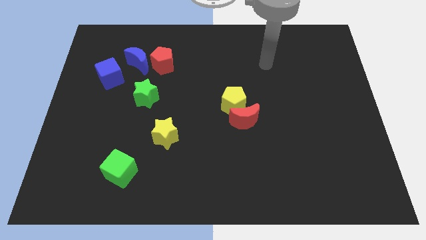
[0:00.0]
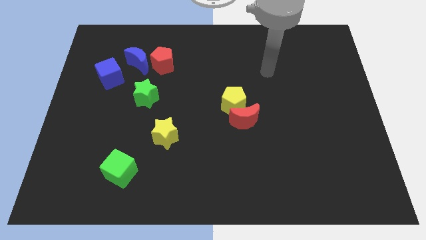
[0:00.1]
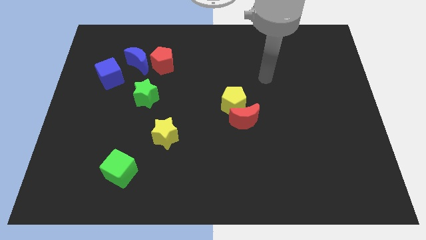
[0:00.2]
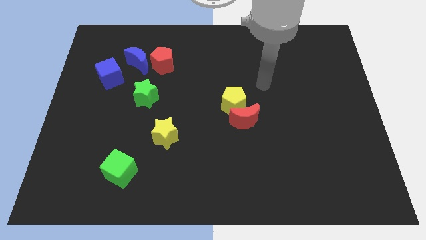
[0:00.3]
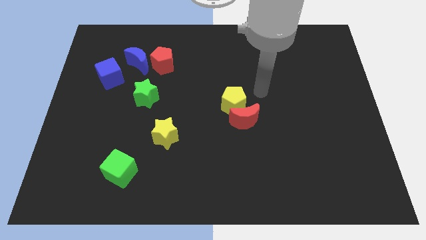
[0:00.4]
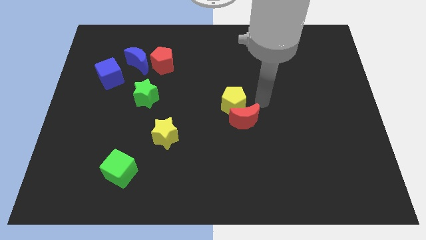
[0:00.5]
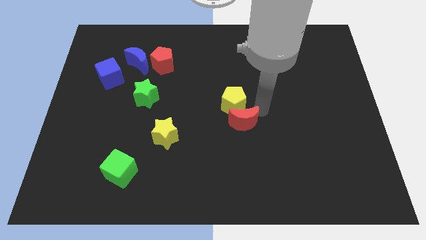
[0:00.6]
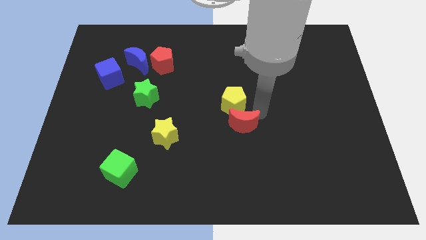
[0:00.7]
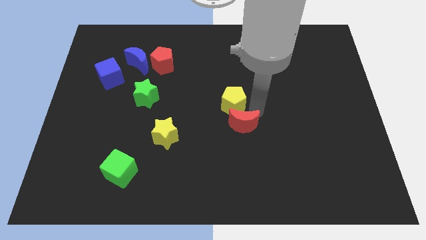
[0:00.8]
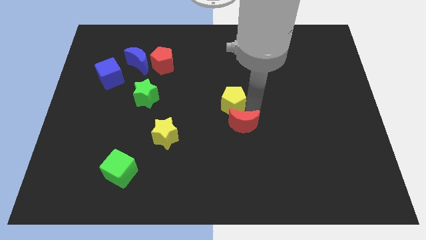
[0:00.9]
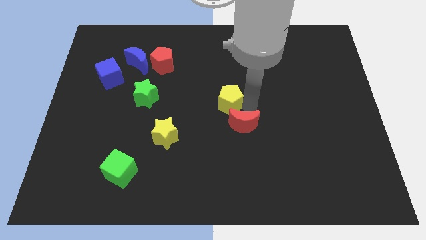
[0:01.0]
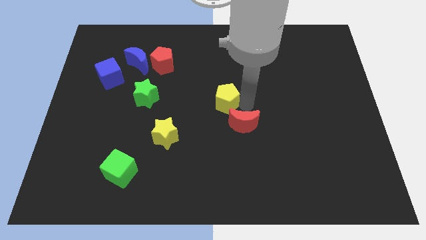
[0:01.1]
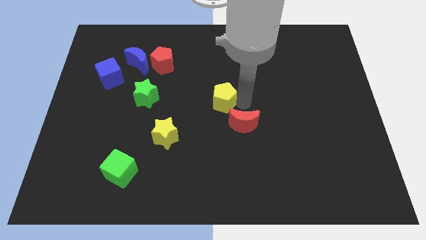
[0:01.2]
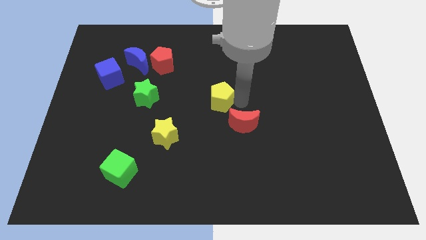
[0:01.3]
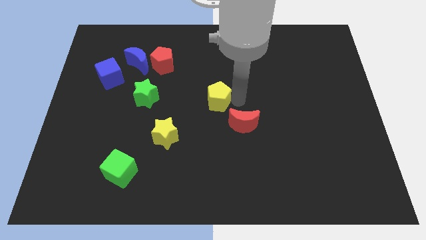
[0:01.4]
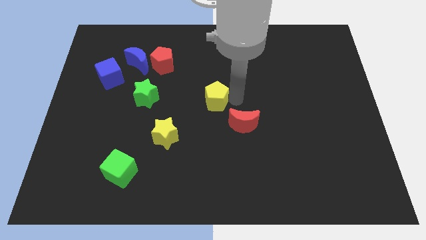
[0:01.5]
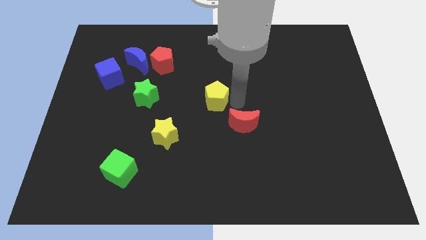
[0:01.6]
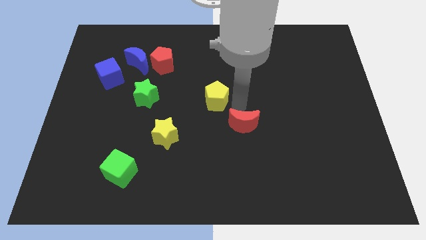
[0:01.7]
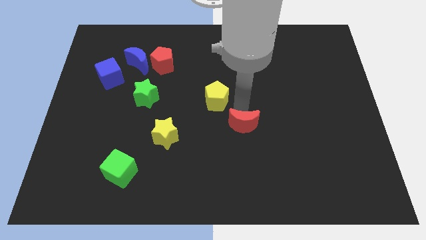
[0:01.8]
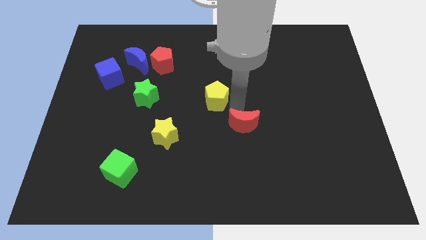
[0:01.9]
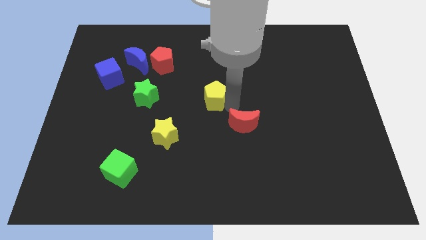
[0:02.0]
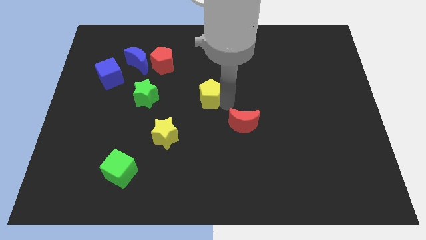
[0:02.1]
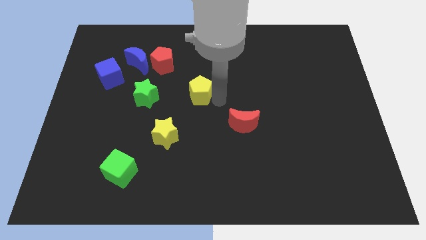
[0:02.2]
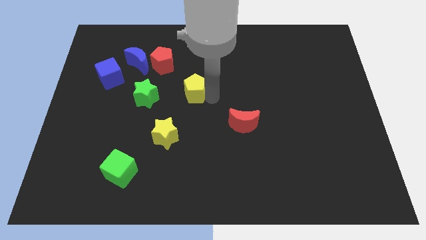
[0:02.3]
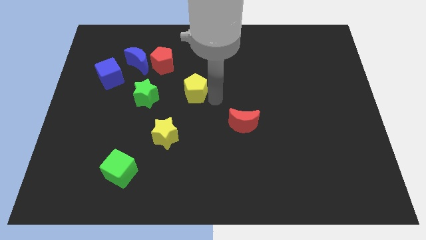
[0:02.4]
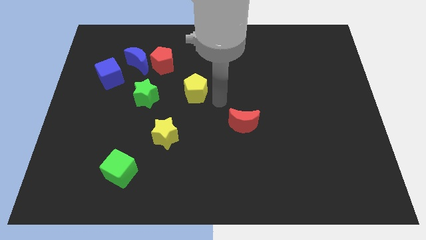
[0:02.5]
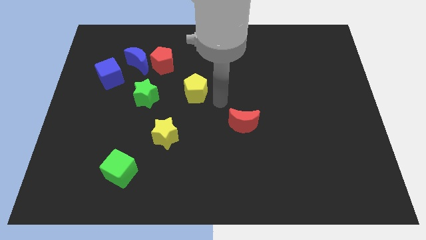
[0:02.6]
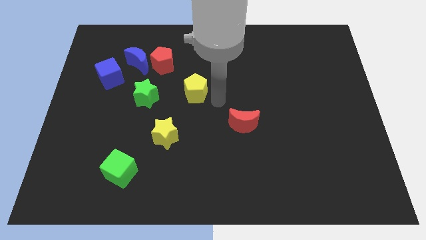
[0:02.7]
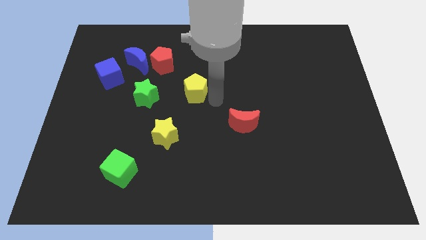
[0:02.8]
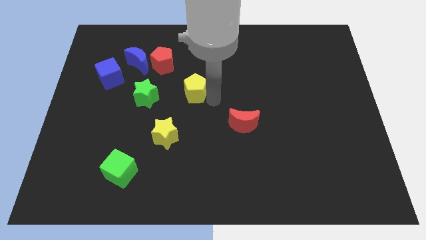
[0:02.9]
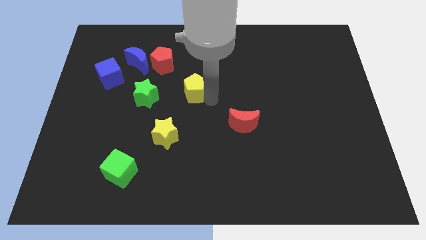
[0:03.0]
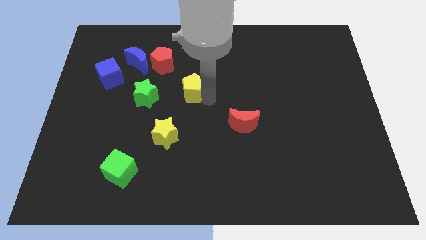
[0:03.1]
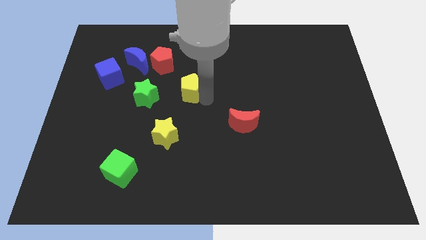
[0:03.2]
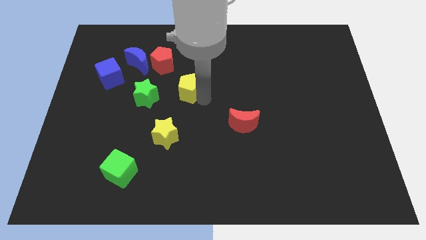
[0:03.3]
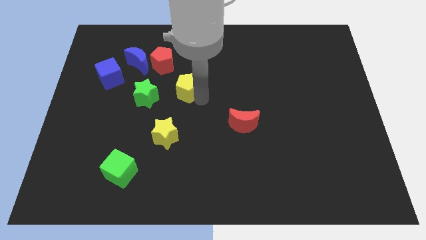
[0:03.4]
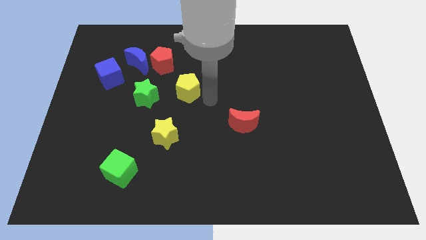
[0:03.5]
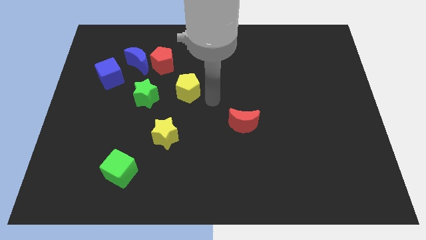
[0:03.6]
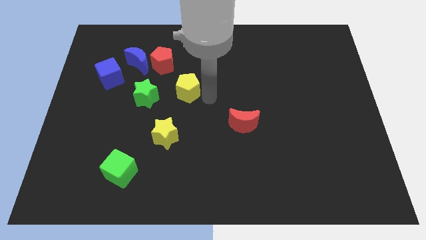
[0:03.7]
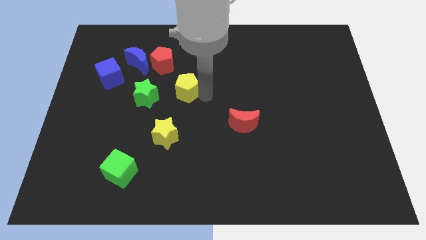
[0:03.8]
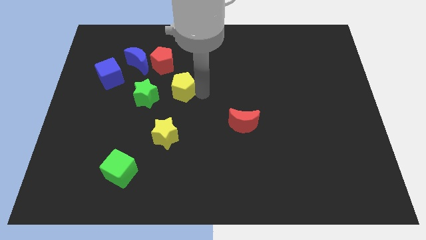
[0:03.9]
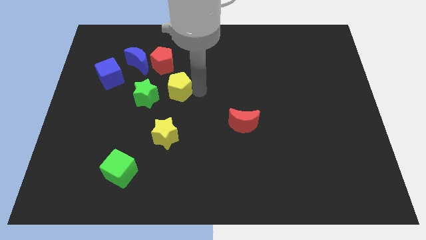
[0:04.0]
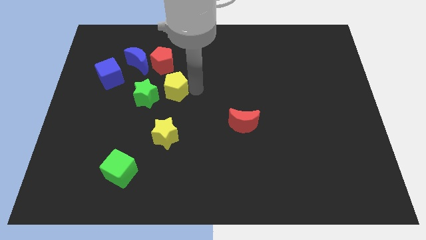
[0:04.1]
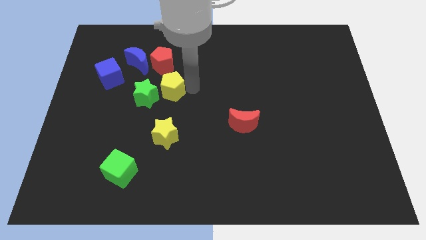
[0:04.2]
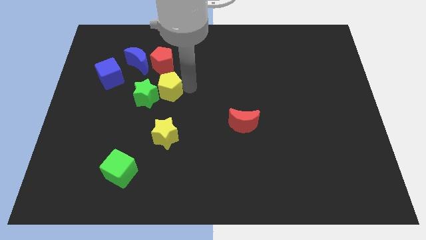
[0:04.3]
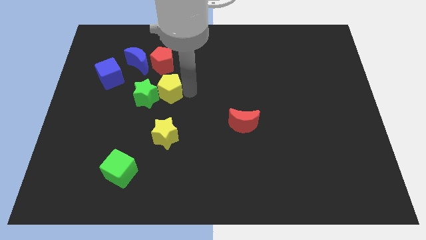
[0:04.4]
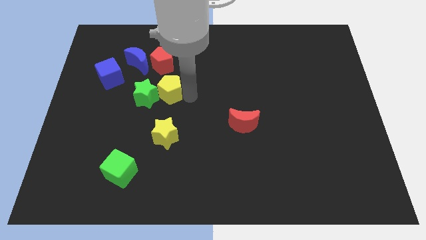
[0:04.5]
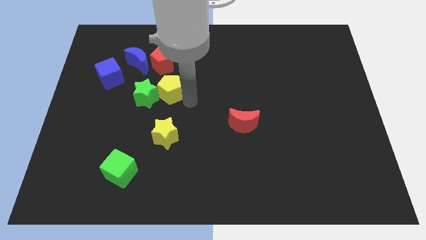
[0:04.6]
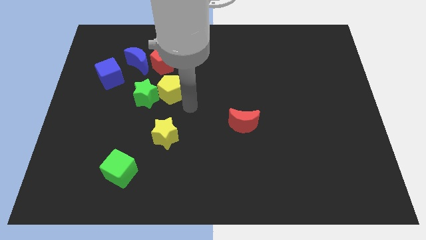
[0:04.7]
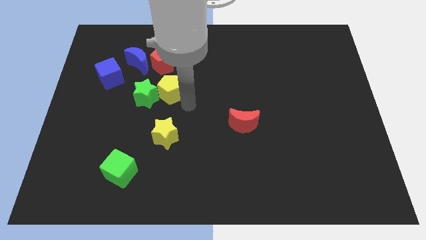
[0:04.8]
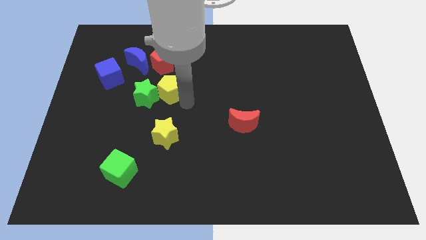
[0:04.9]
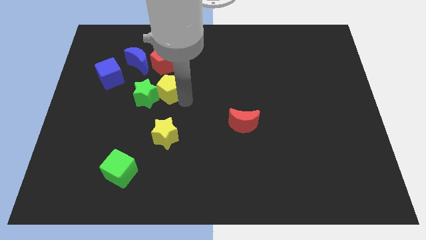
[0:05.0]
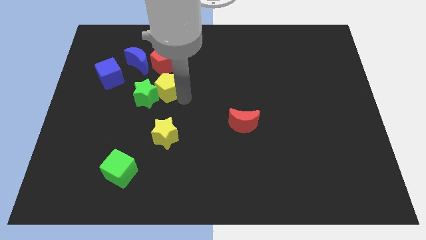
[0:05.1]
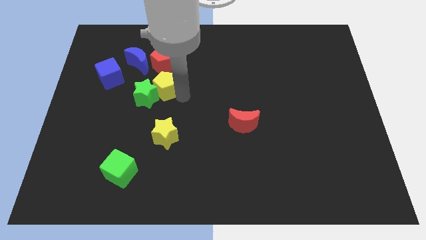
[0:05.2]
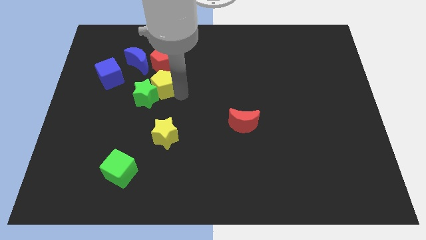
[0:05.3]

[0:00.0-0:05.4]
put the yellow pentagon to the right of the blue cube

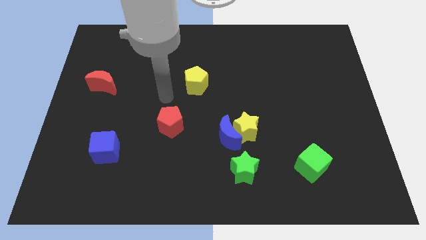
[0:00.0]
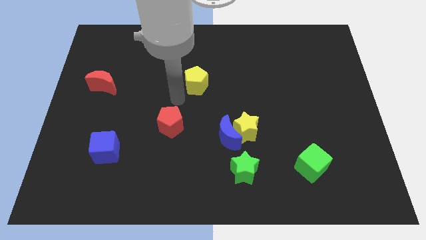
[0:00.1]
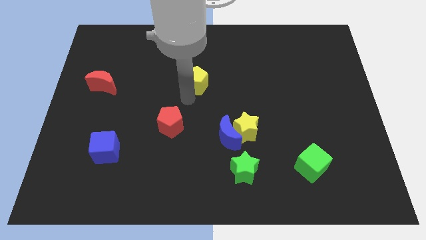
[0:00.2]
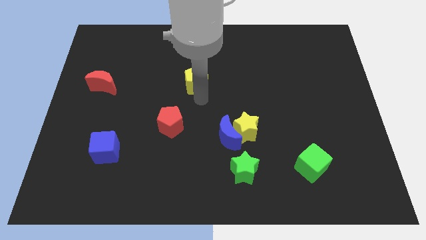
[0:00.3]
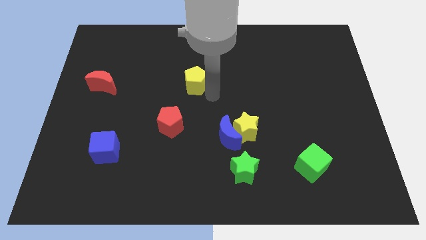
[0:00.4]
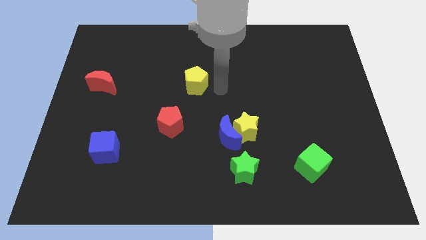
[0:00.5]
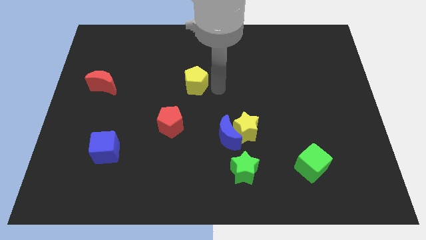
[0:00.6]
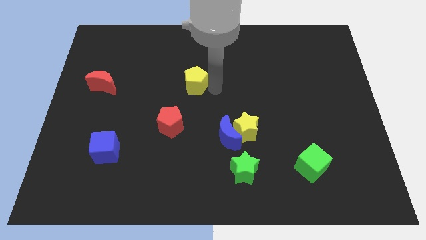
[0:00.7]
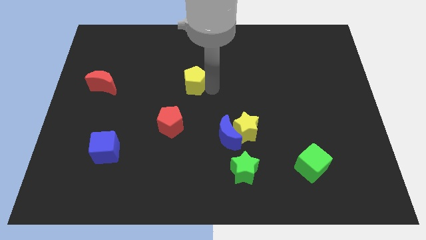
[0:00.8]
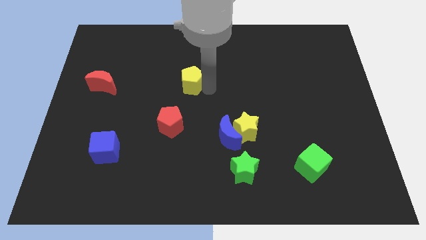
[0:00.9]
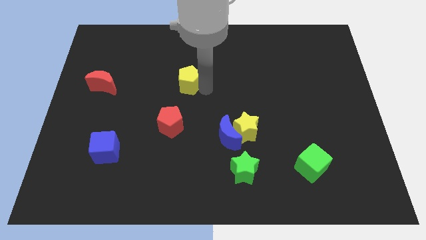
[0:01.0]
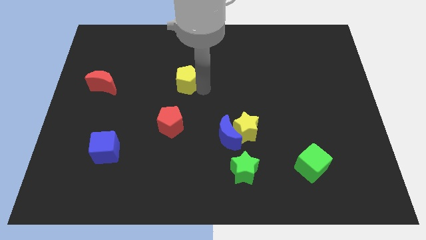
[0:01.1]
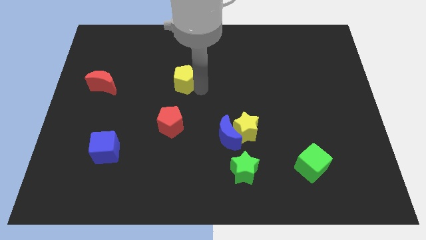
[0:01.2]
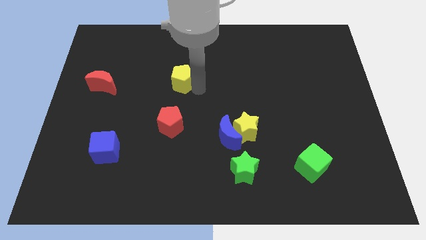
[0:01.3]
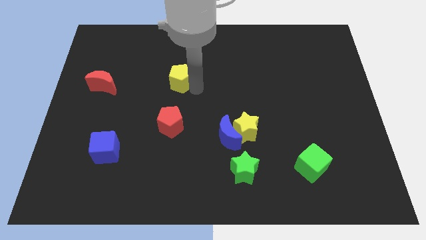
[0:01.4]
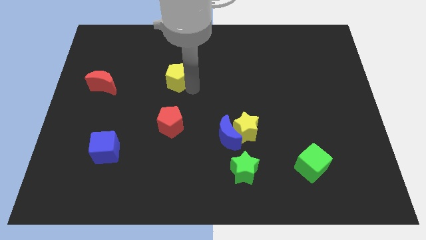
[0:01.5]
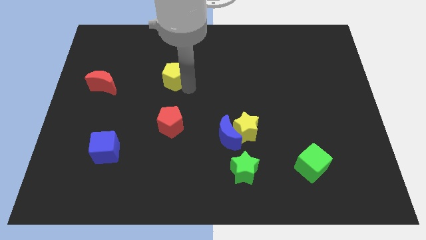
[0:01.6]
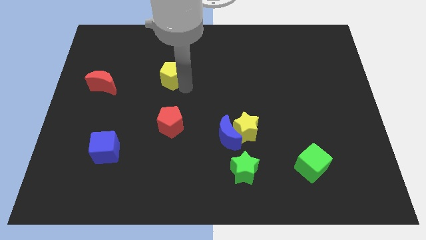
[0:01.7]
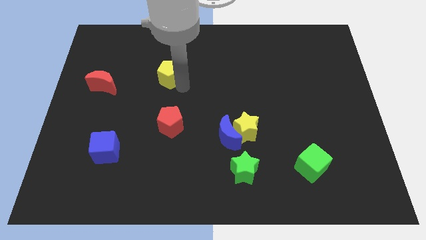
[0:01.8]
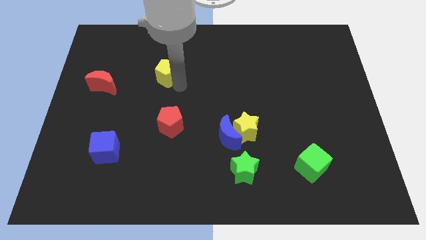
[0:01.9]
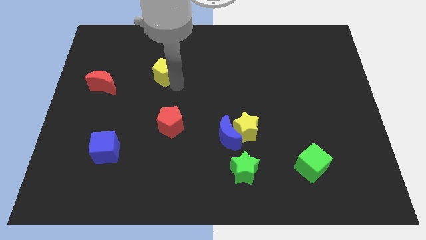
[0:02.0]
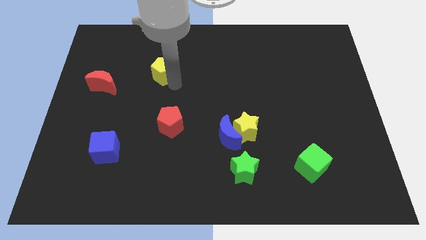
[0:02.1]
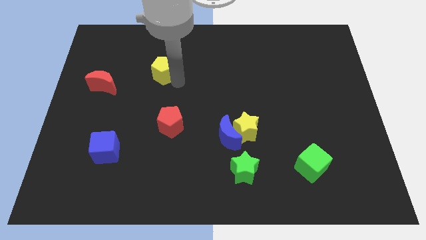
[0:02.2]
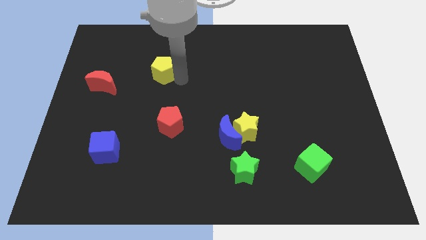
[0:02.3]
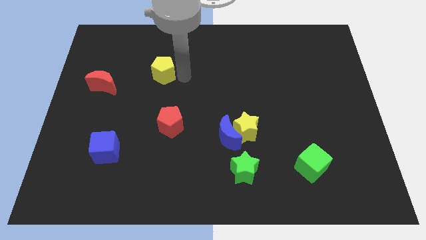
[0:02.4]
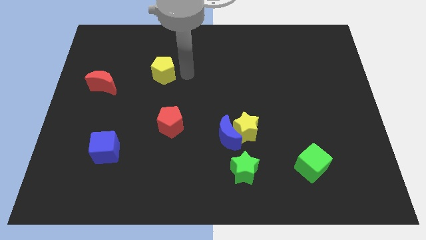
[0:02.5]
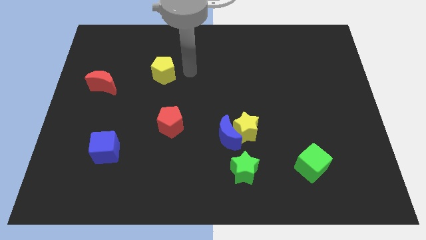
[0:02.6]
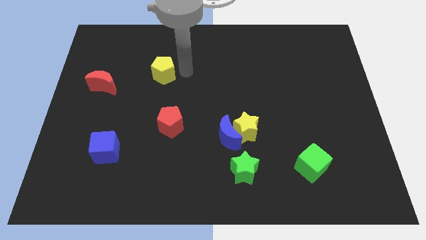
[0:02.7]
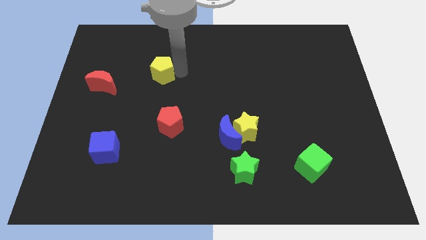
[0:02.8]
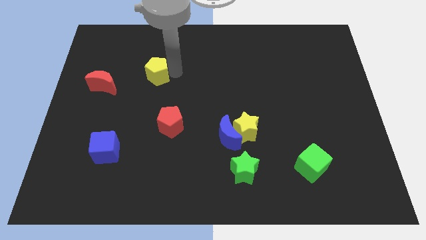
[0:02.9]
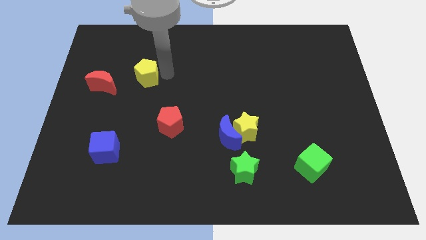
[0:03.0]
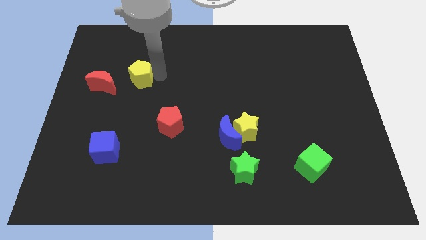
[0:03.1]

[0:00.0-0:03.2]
put the yellow pentagon to the top right of the red moon
